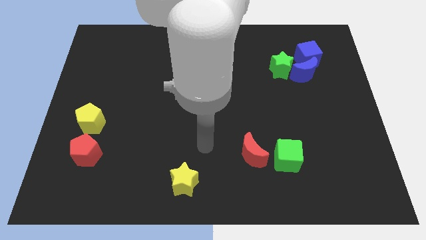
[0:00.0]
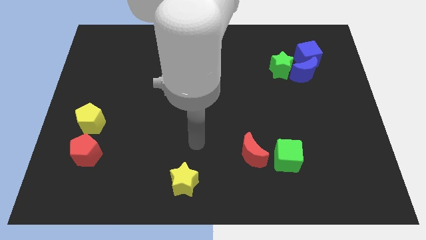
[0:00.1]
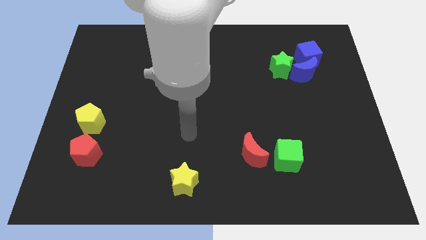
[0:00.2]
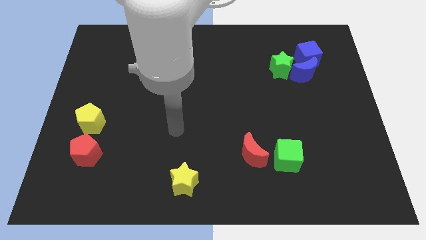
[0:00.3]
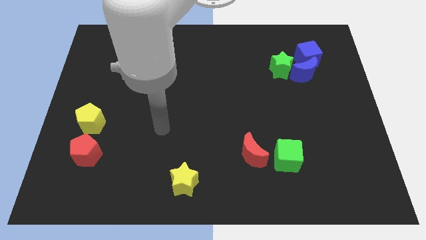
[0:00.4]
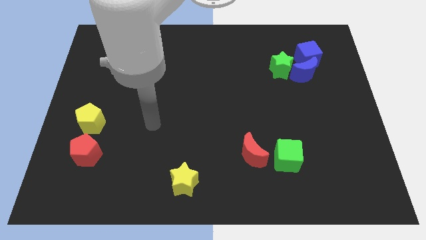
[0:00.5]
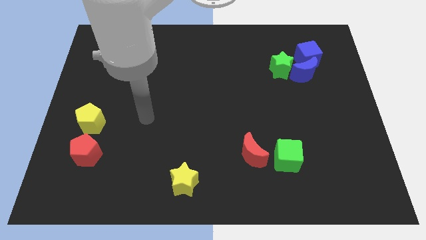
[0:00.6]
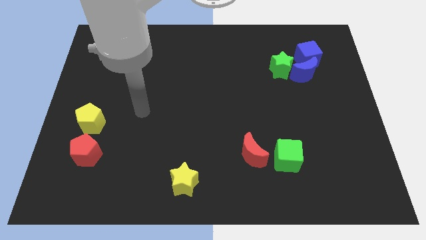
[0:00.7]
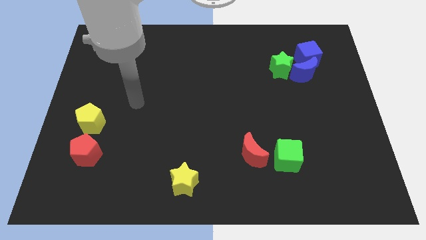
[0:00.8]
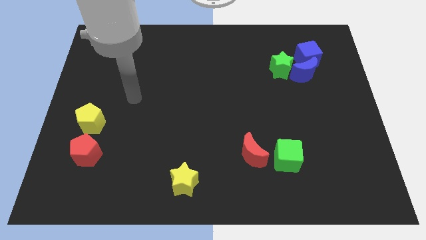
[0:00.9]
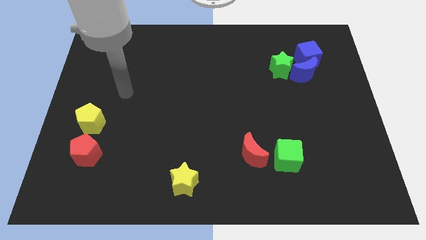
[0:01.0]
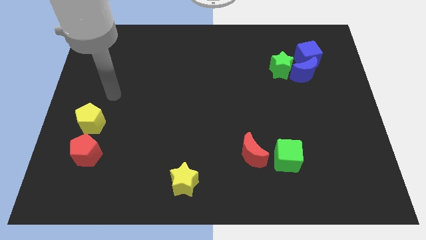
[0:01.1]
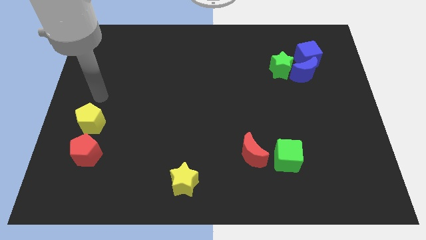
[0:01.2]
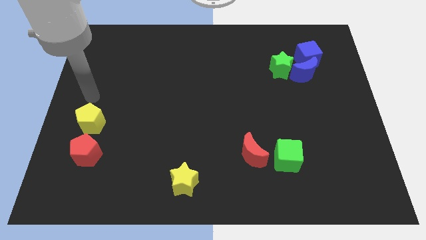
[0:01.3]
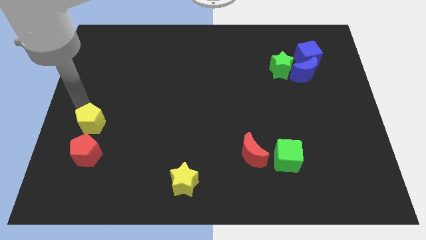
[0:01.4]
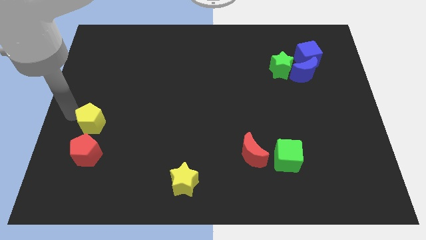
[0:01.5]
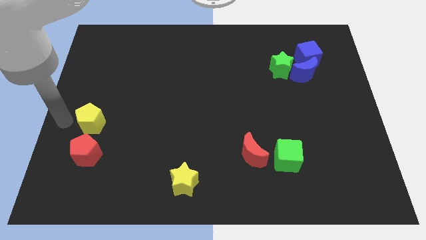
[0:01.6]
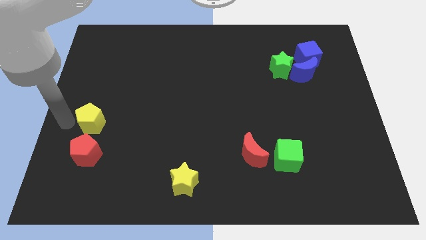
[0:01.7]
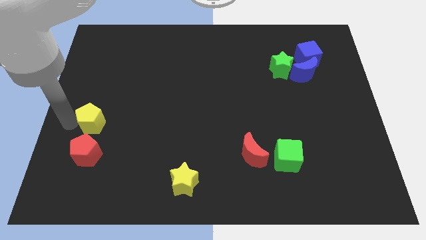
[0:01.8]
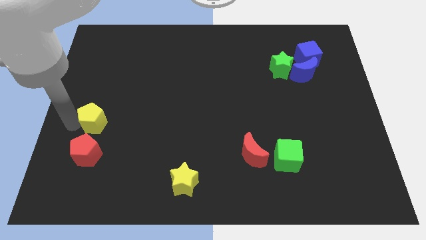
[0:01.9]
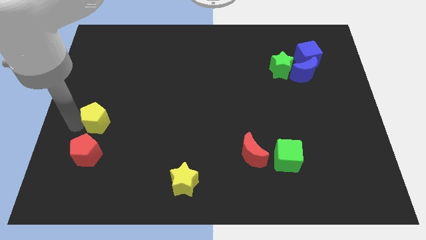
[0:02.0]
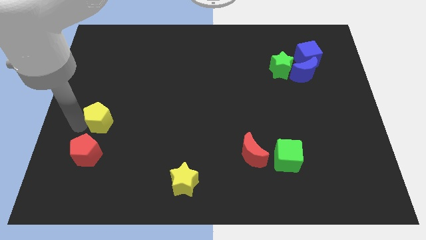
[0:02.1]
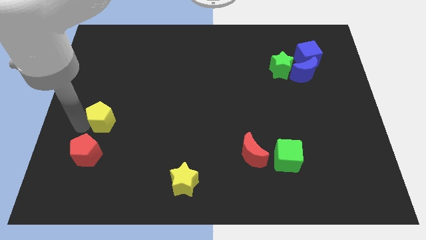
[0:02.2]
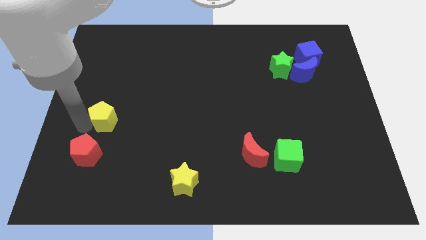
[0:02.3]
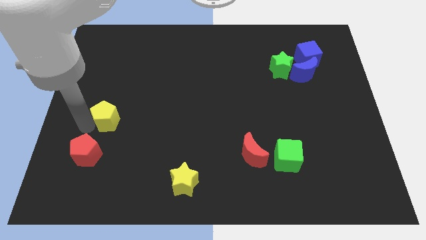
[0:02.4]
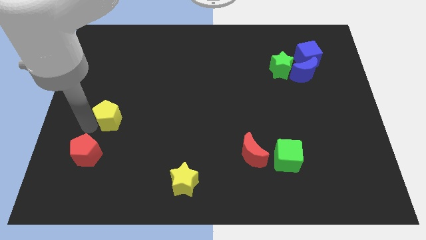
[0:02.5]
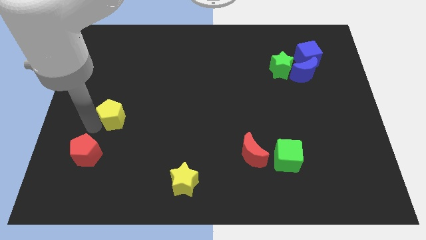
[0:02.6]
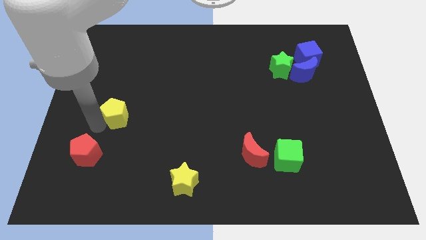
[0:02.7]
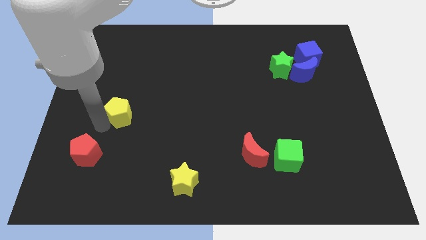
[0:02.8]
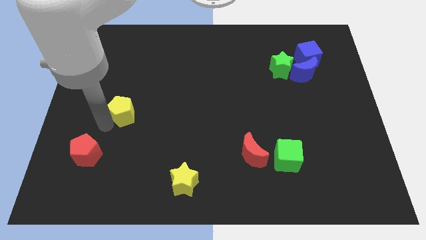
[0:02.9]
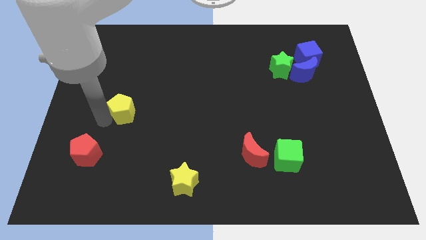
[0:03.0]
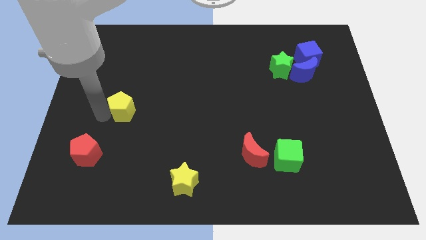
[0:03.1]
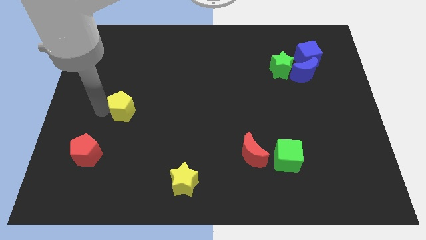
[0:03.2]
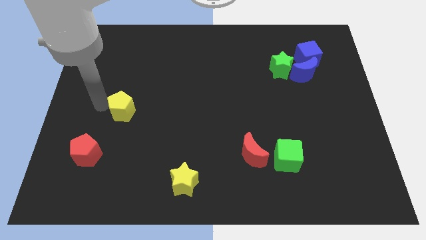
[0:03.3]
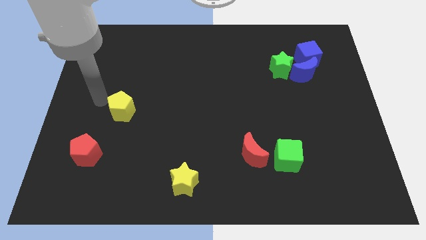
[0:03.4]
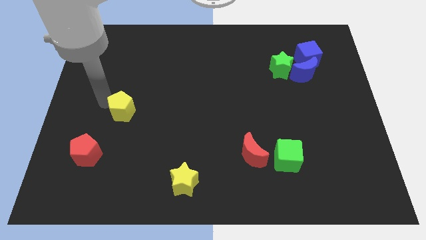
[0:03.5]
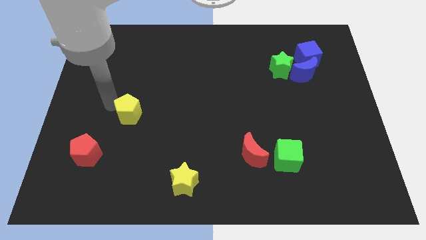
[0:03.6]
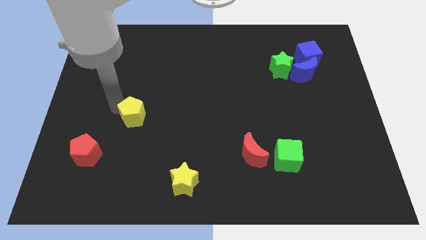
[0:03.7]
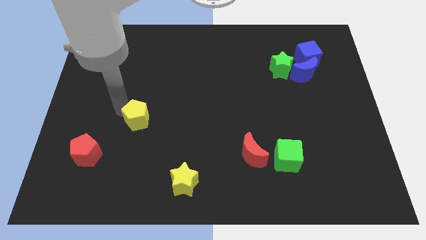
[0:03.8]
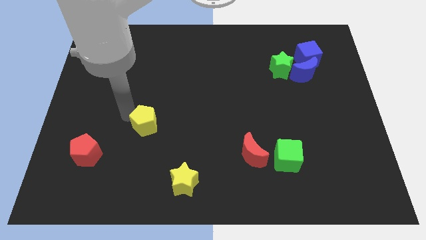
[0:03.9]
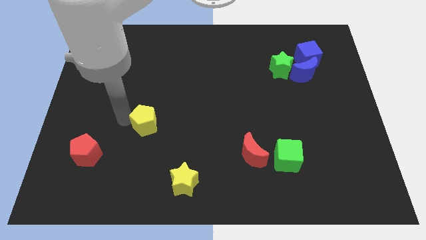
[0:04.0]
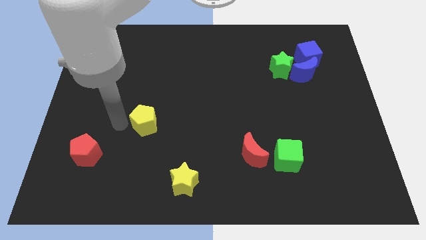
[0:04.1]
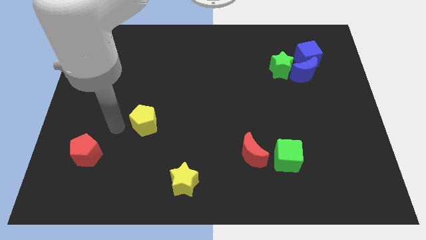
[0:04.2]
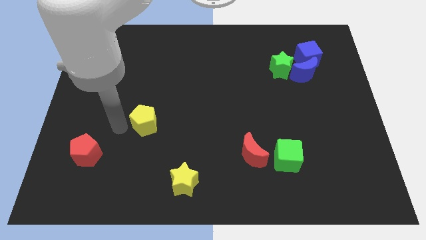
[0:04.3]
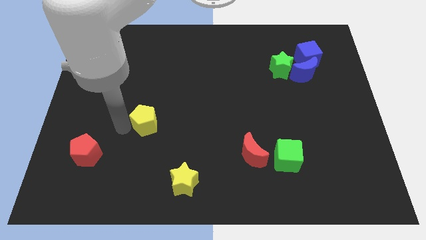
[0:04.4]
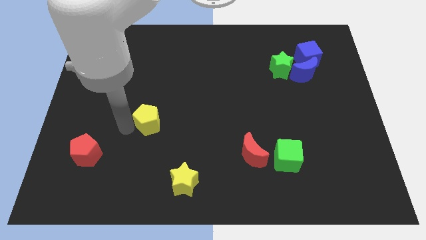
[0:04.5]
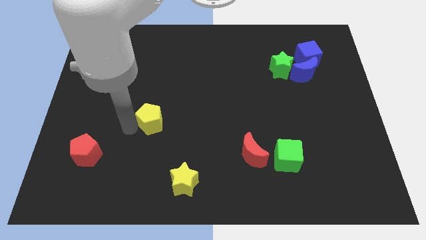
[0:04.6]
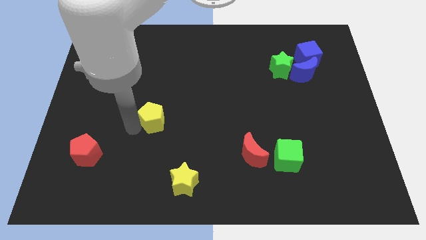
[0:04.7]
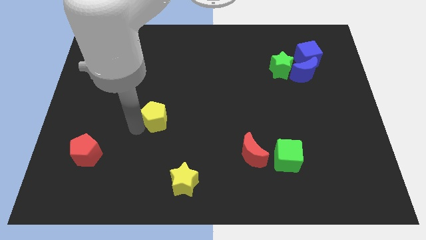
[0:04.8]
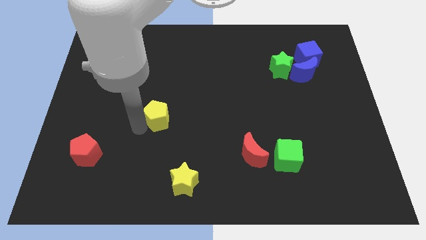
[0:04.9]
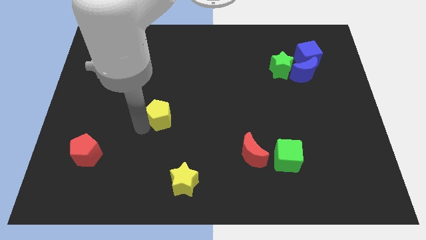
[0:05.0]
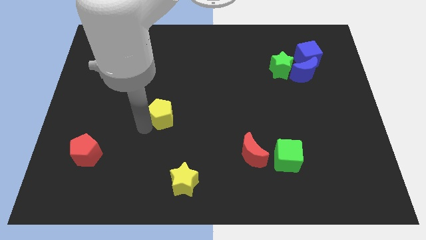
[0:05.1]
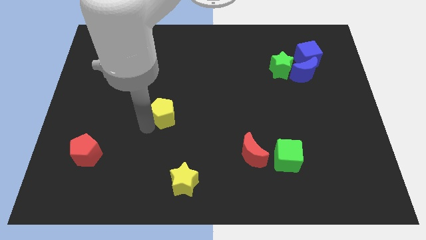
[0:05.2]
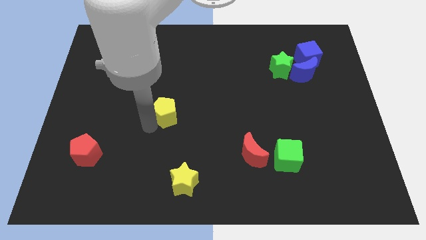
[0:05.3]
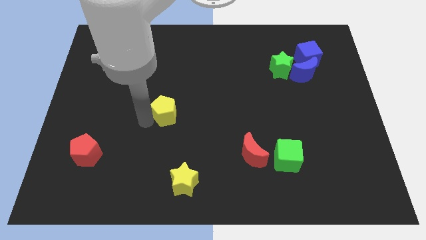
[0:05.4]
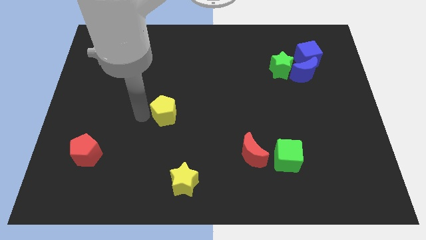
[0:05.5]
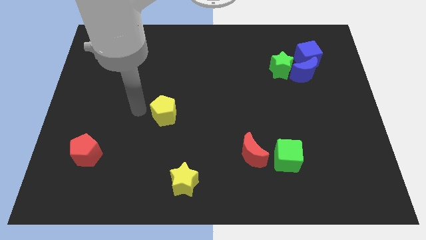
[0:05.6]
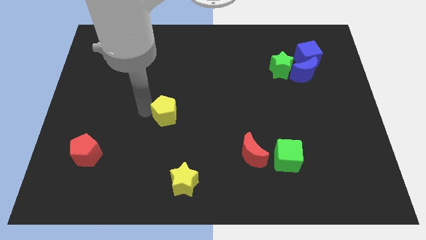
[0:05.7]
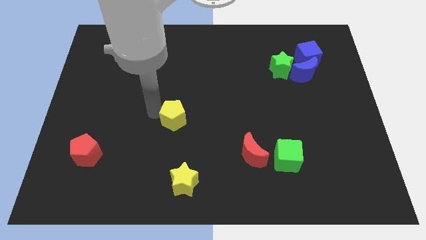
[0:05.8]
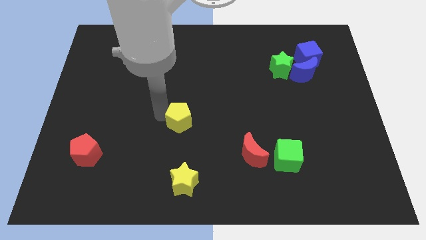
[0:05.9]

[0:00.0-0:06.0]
slide the yellow pentagon to the right

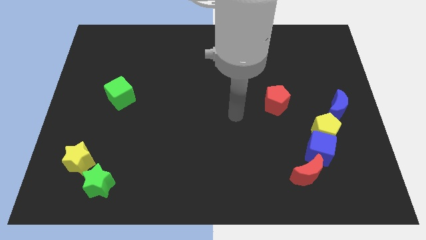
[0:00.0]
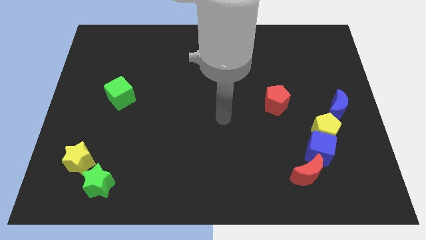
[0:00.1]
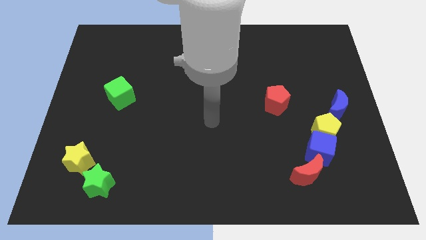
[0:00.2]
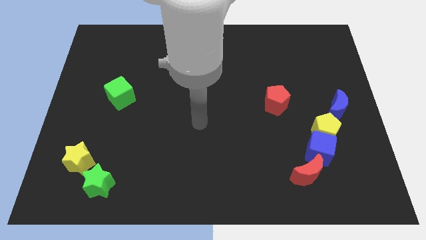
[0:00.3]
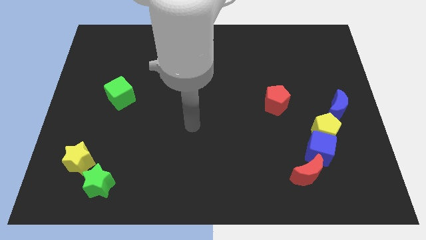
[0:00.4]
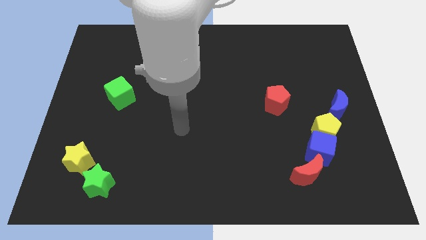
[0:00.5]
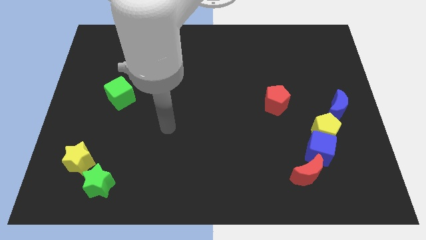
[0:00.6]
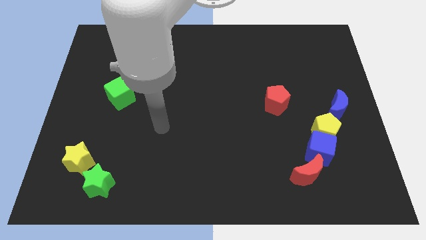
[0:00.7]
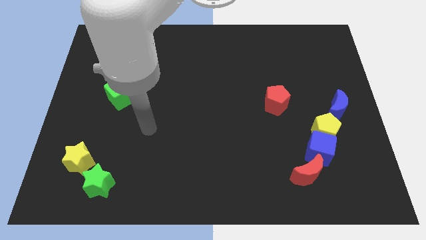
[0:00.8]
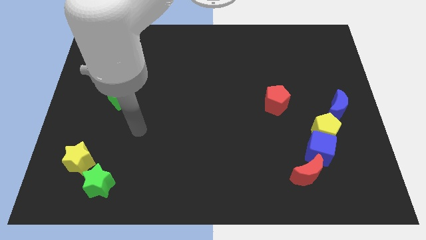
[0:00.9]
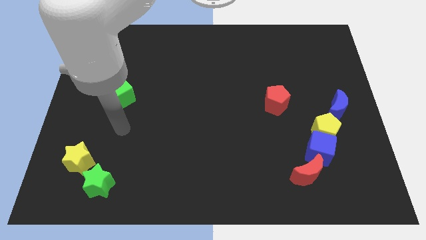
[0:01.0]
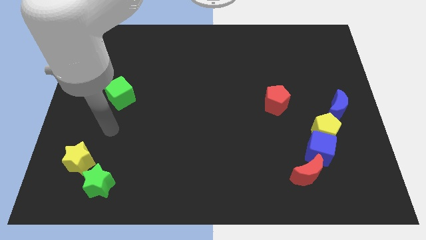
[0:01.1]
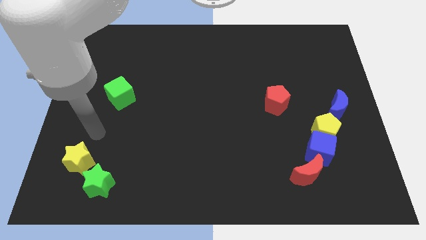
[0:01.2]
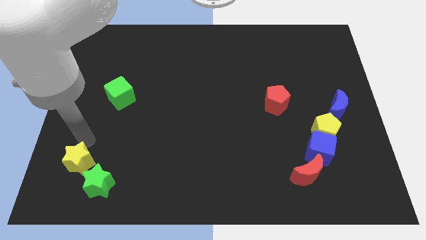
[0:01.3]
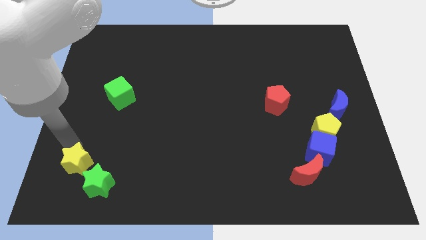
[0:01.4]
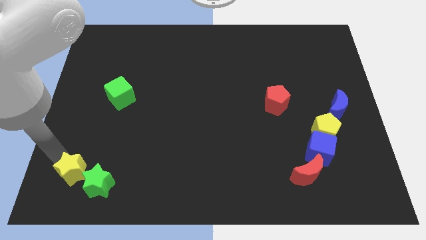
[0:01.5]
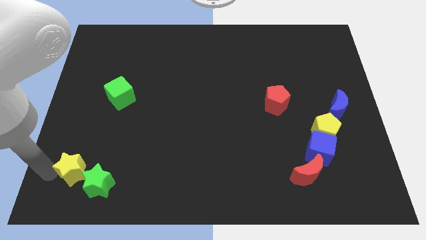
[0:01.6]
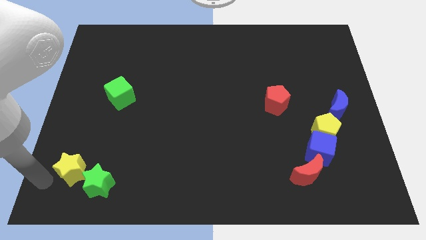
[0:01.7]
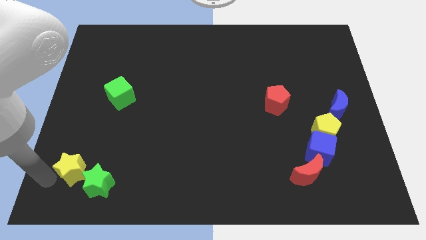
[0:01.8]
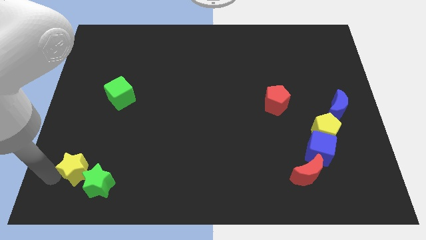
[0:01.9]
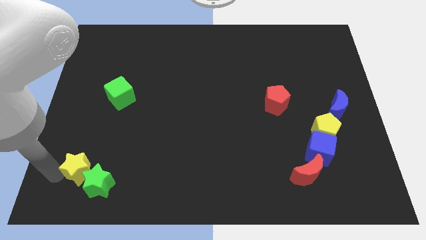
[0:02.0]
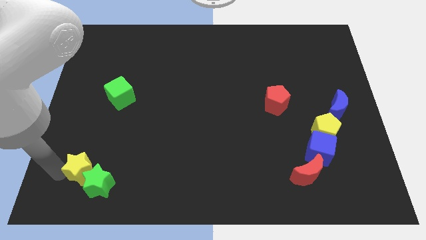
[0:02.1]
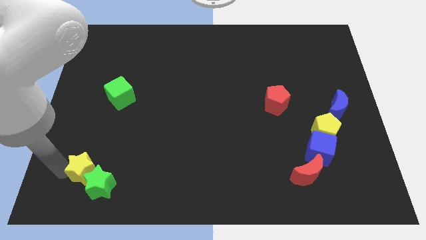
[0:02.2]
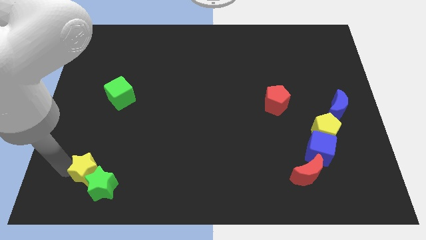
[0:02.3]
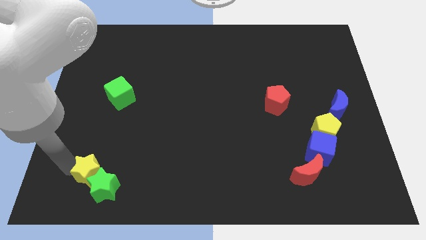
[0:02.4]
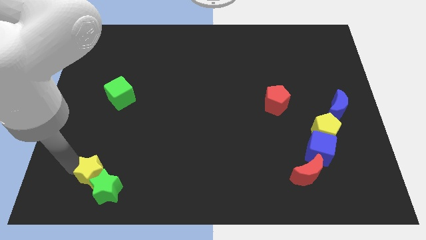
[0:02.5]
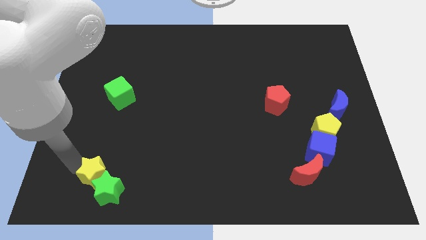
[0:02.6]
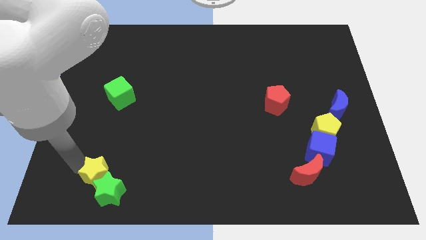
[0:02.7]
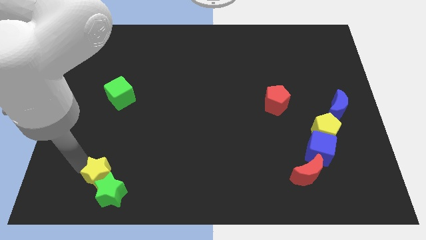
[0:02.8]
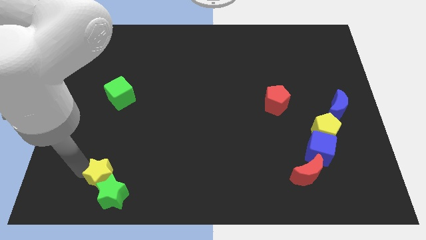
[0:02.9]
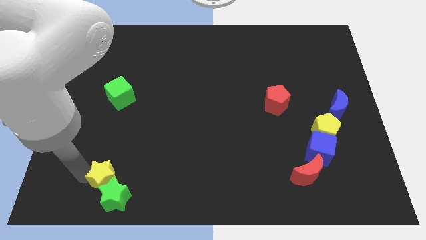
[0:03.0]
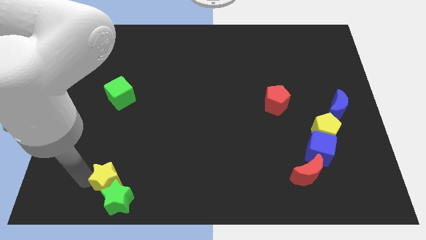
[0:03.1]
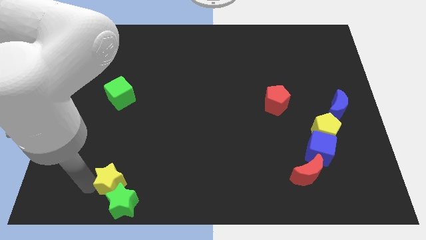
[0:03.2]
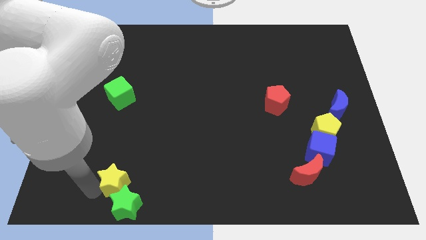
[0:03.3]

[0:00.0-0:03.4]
push the yellow star right a little bit
